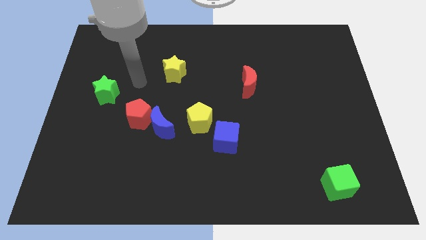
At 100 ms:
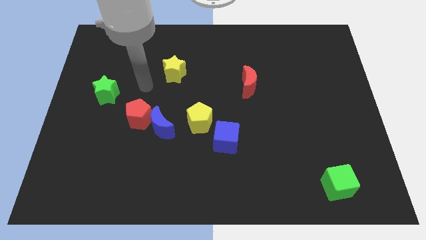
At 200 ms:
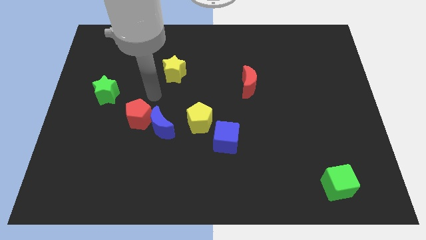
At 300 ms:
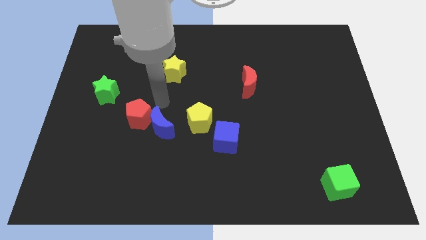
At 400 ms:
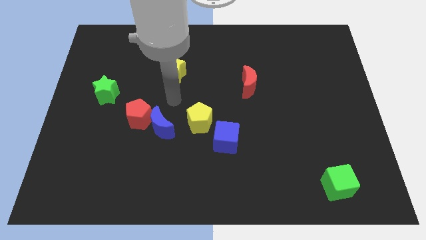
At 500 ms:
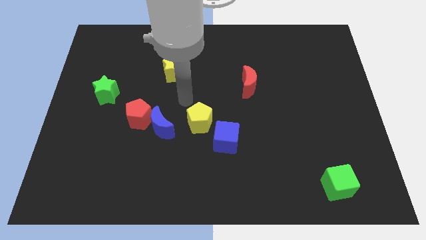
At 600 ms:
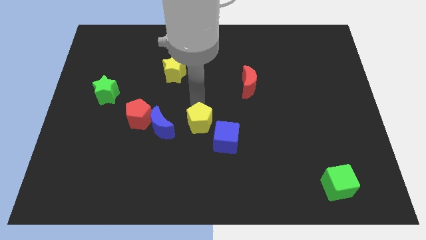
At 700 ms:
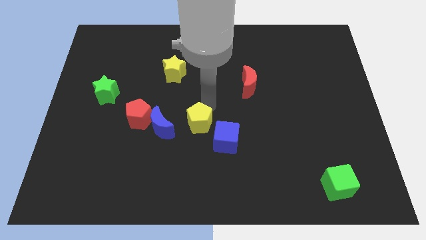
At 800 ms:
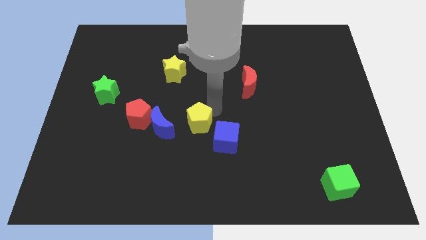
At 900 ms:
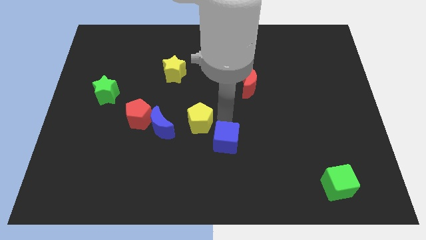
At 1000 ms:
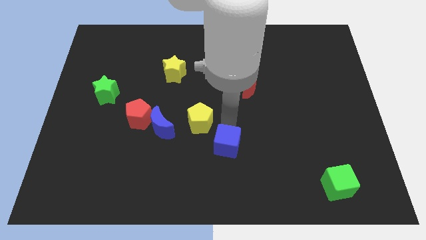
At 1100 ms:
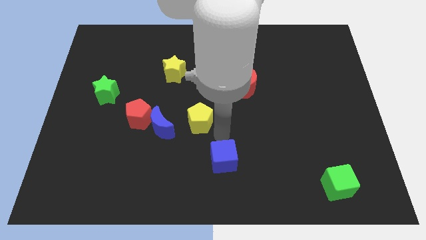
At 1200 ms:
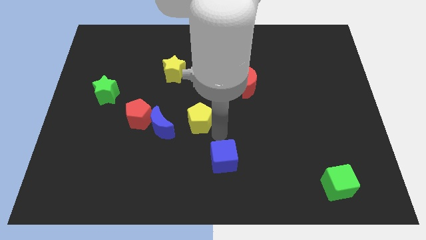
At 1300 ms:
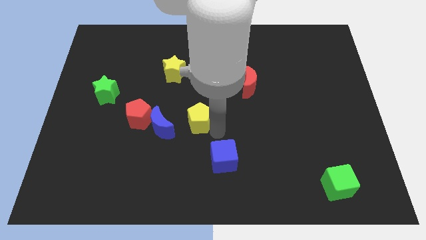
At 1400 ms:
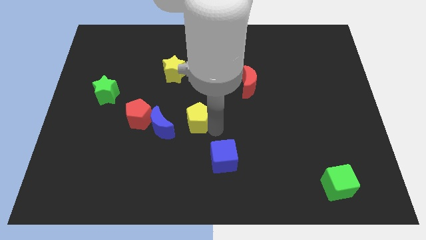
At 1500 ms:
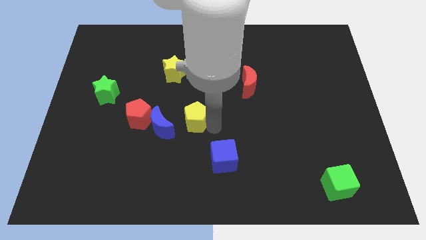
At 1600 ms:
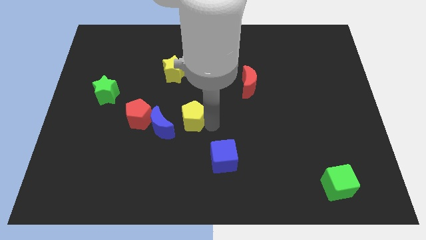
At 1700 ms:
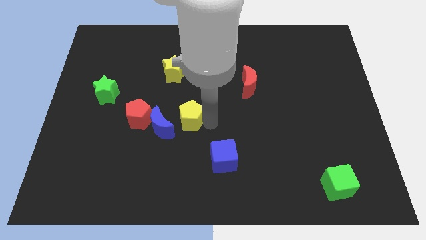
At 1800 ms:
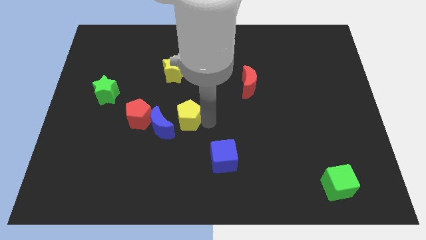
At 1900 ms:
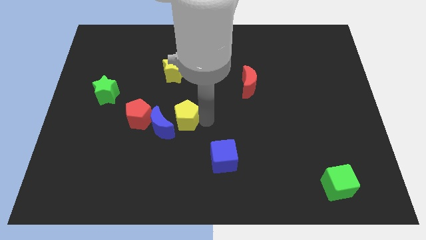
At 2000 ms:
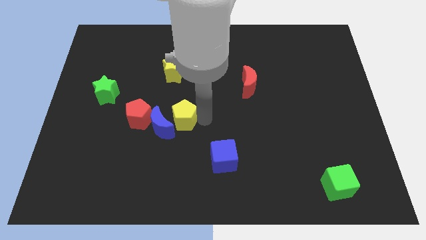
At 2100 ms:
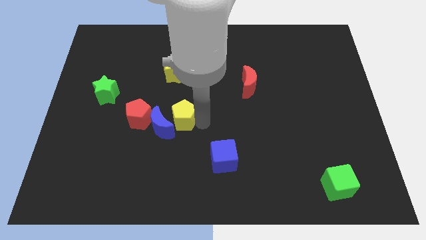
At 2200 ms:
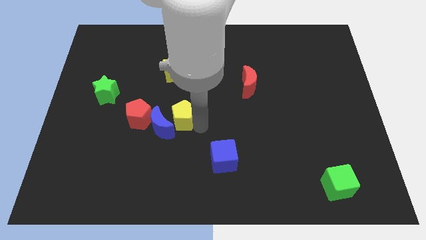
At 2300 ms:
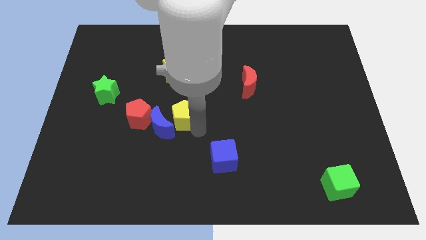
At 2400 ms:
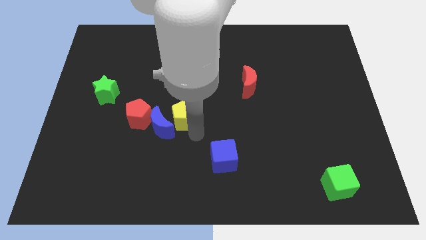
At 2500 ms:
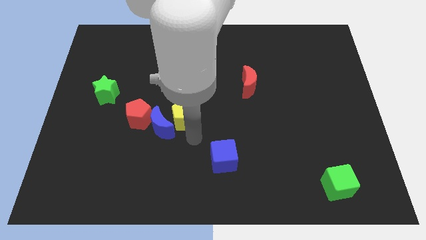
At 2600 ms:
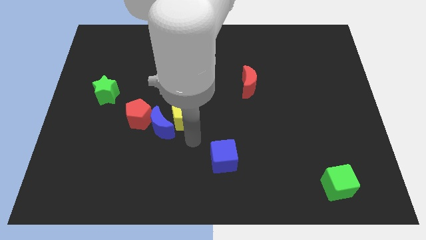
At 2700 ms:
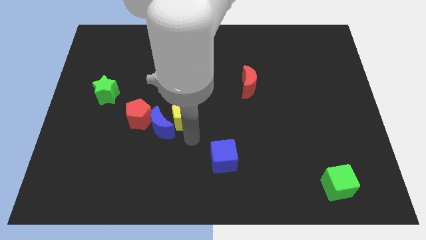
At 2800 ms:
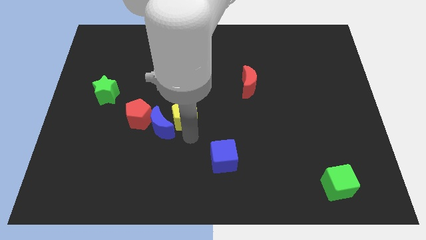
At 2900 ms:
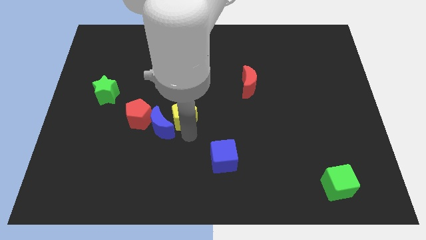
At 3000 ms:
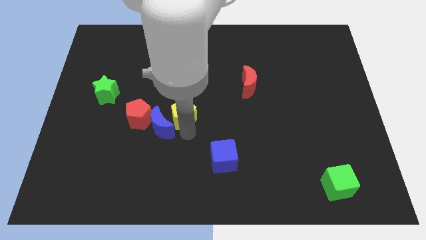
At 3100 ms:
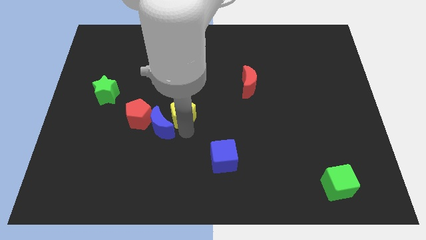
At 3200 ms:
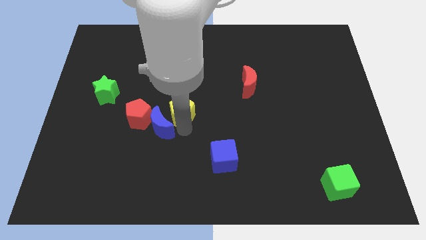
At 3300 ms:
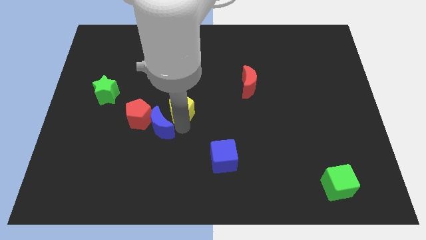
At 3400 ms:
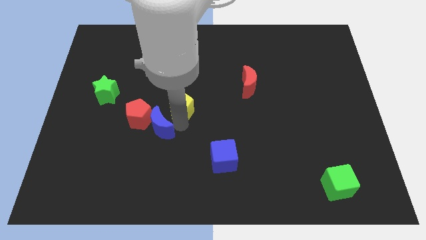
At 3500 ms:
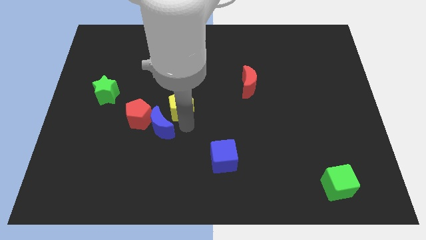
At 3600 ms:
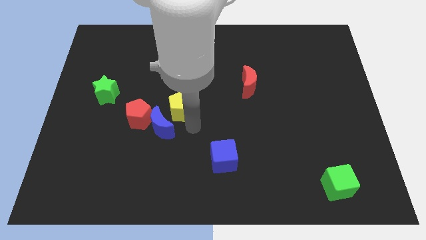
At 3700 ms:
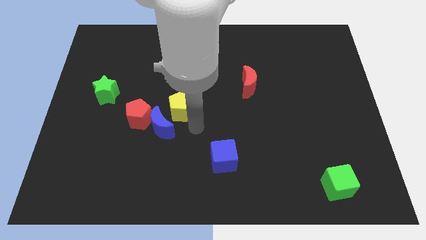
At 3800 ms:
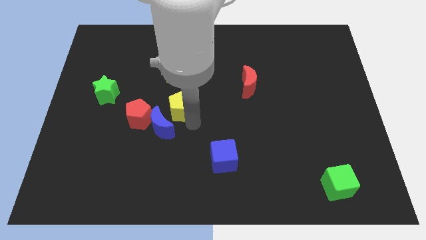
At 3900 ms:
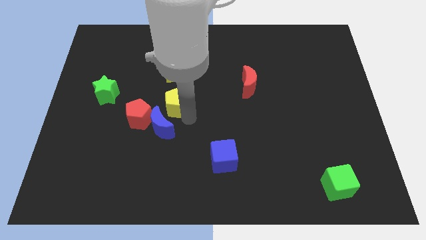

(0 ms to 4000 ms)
move the yellow pentagon upwards and left diagonally a little bit

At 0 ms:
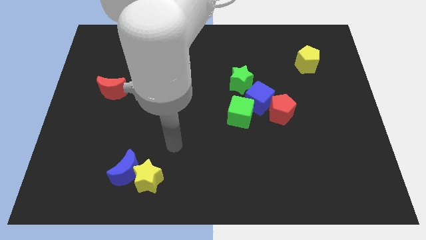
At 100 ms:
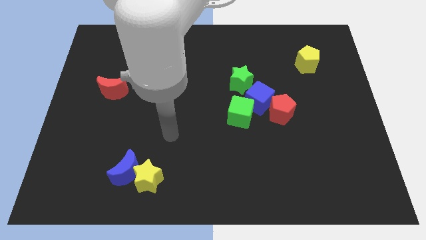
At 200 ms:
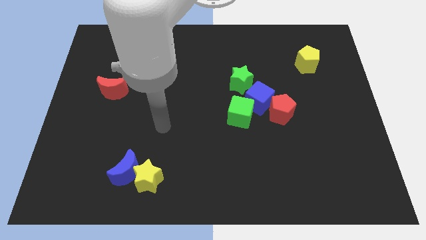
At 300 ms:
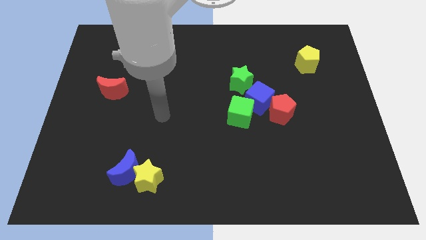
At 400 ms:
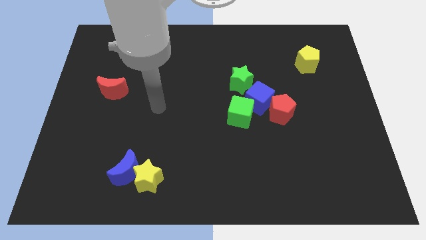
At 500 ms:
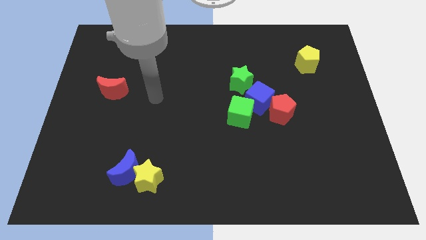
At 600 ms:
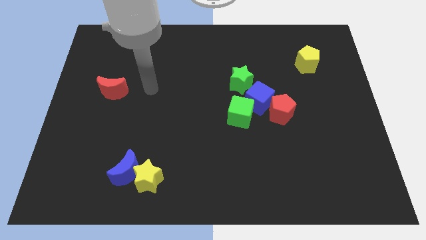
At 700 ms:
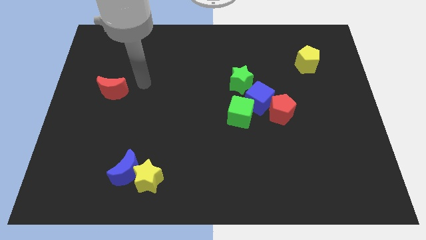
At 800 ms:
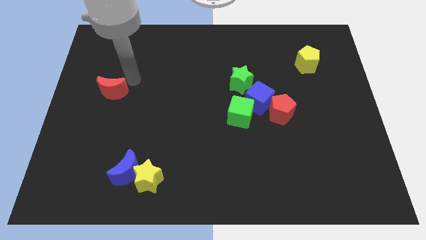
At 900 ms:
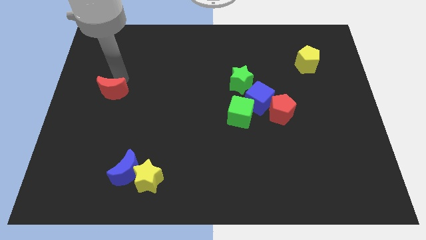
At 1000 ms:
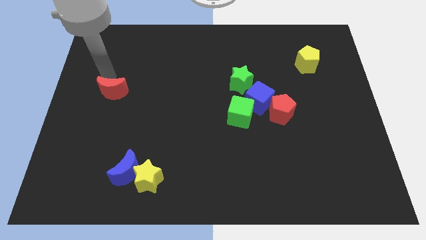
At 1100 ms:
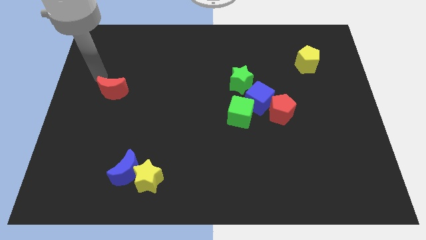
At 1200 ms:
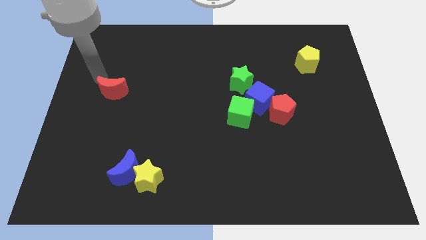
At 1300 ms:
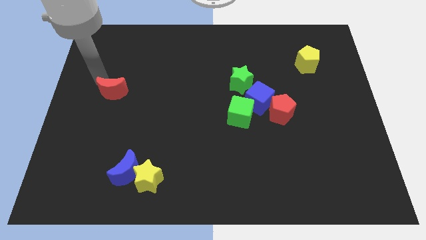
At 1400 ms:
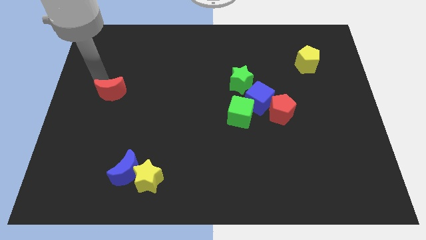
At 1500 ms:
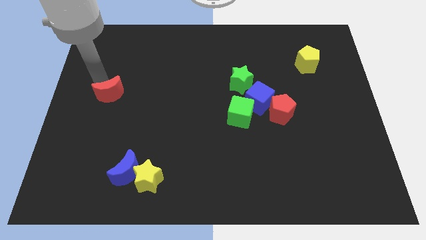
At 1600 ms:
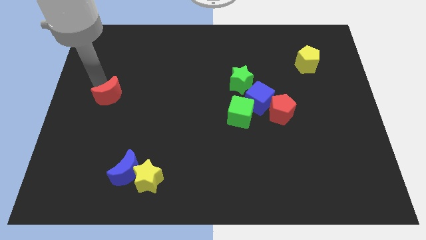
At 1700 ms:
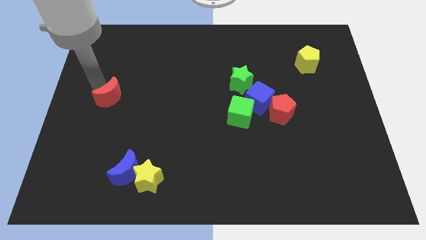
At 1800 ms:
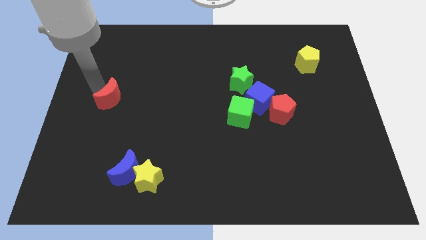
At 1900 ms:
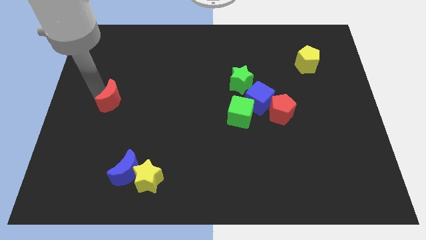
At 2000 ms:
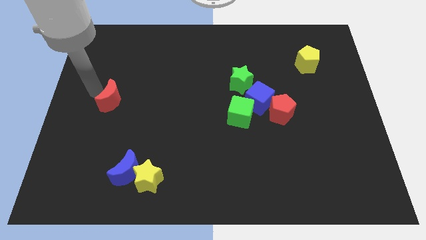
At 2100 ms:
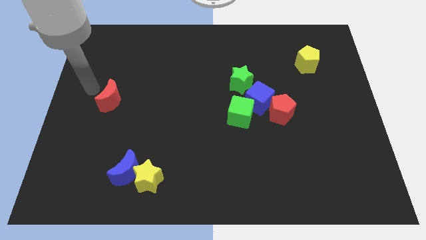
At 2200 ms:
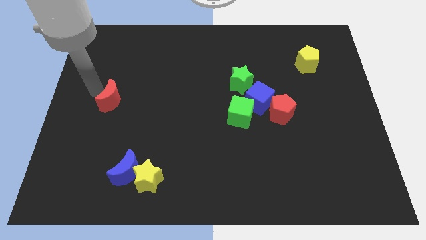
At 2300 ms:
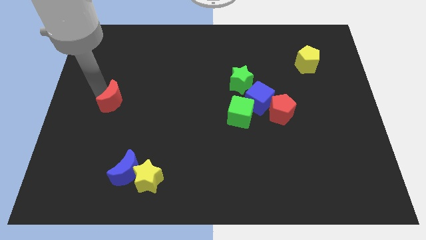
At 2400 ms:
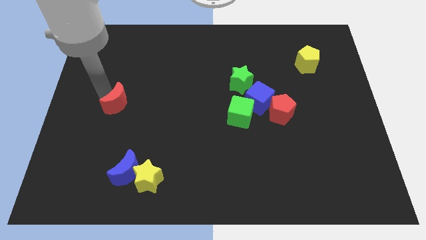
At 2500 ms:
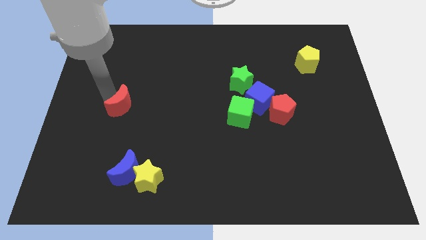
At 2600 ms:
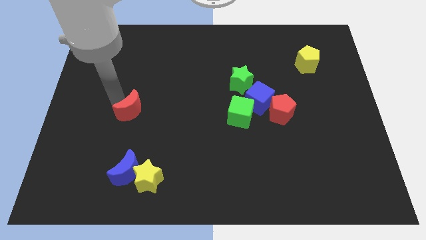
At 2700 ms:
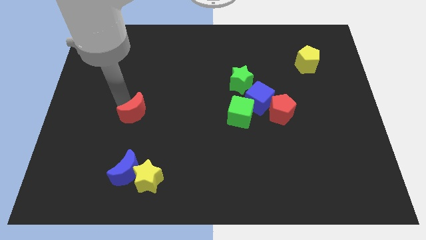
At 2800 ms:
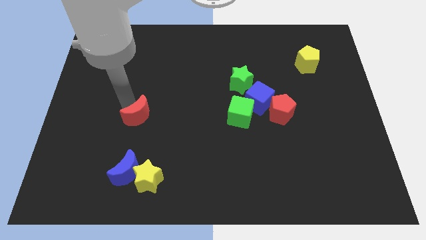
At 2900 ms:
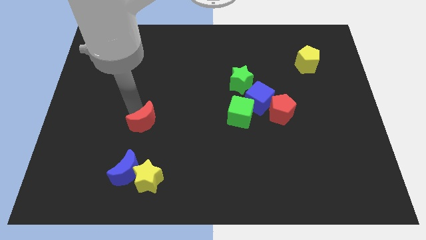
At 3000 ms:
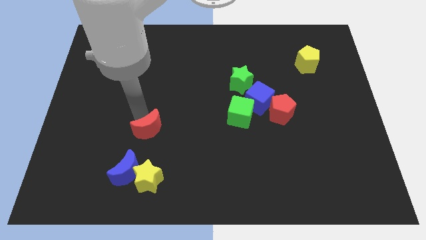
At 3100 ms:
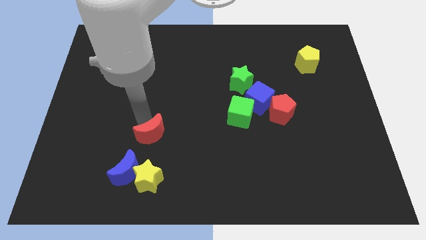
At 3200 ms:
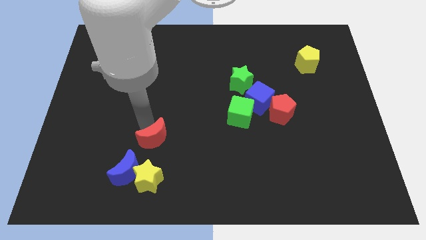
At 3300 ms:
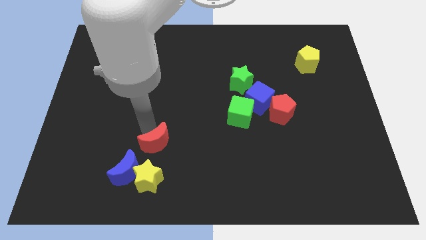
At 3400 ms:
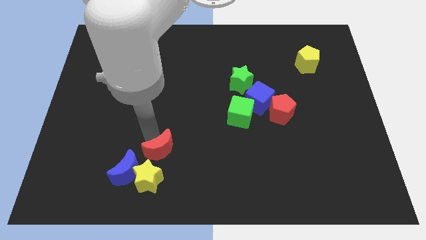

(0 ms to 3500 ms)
slide the red moon downwards and then to the right

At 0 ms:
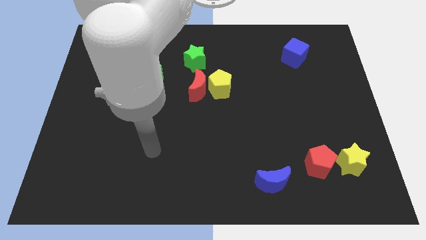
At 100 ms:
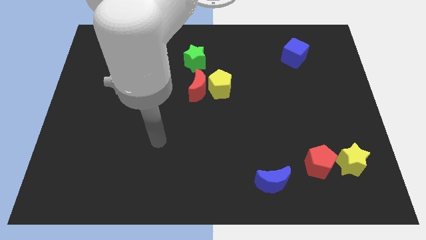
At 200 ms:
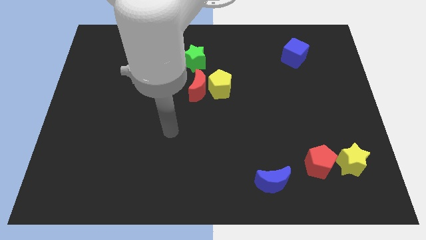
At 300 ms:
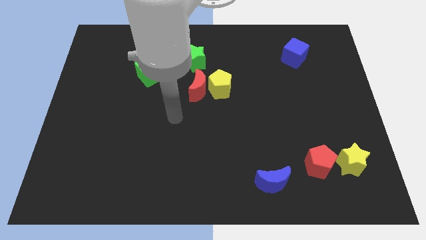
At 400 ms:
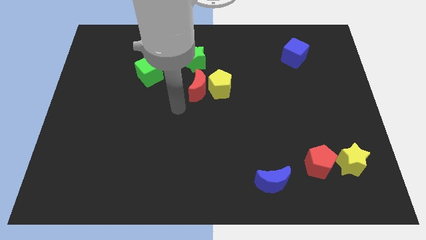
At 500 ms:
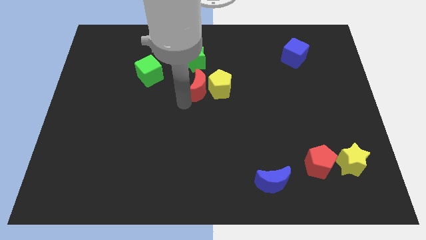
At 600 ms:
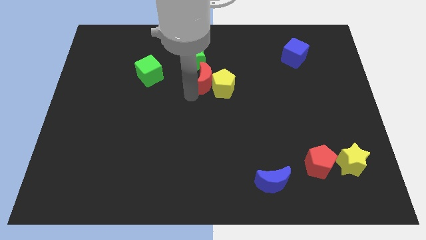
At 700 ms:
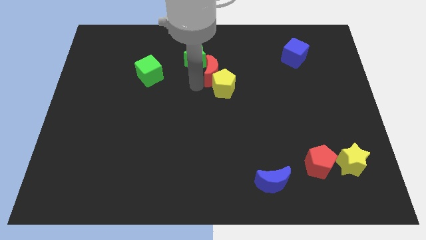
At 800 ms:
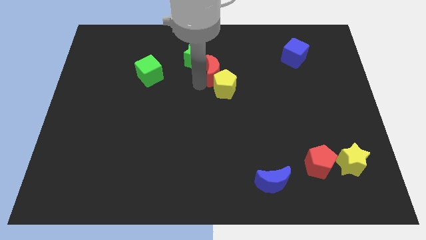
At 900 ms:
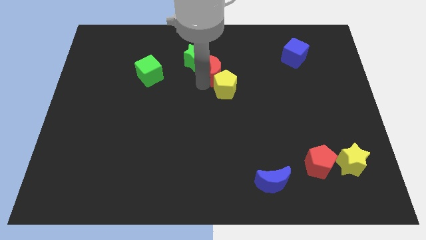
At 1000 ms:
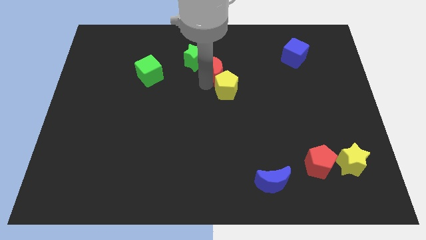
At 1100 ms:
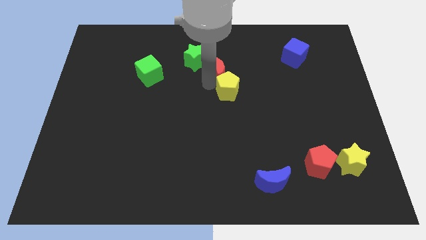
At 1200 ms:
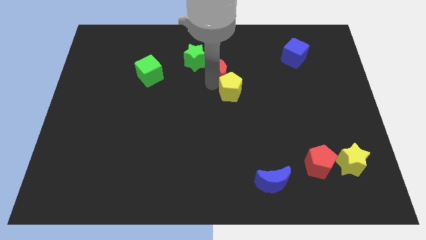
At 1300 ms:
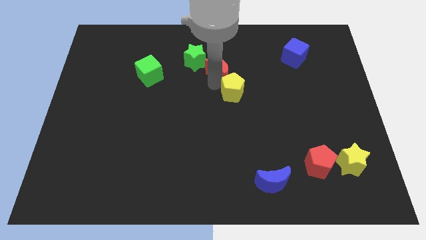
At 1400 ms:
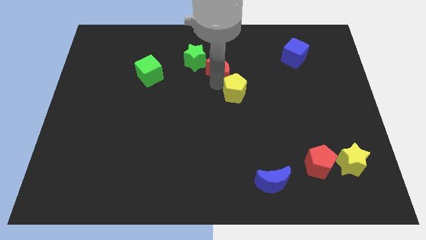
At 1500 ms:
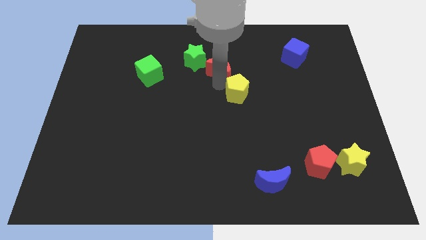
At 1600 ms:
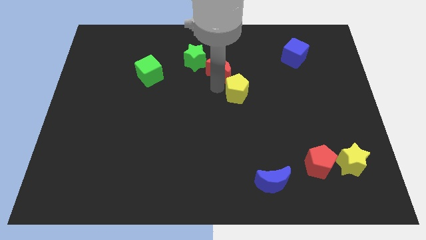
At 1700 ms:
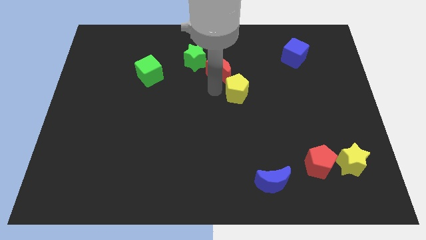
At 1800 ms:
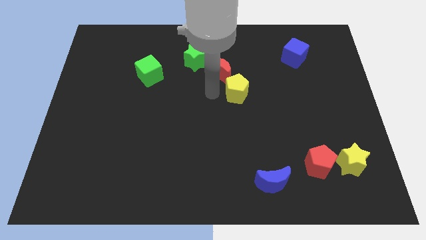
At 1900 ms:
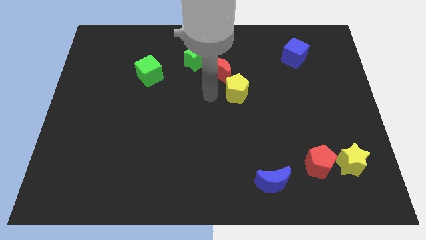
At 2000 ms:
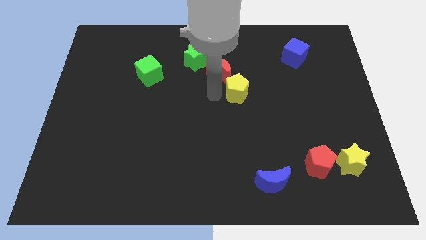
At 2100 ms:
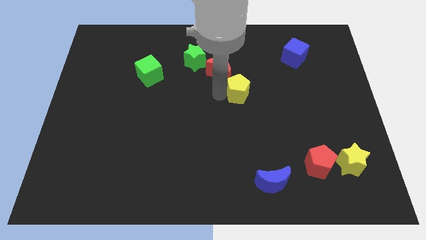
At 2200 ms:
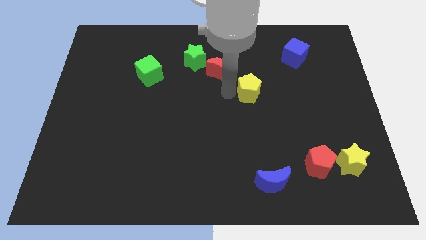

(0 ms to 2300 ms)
slightly move the yellow pentagon right
